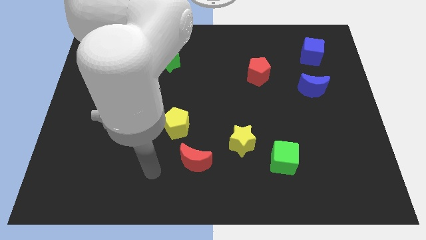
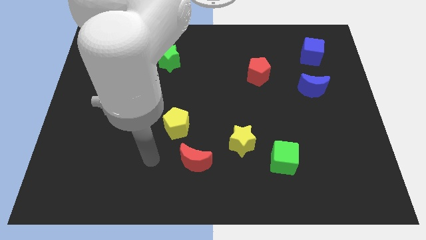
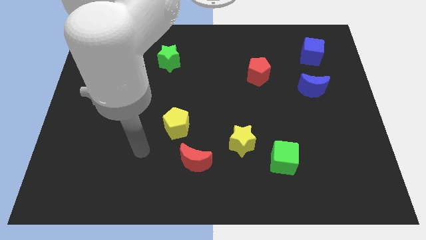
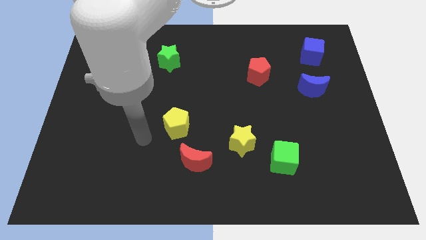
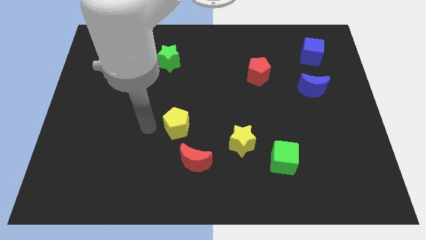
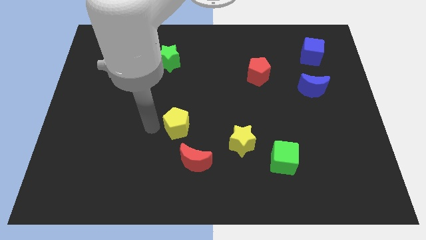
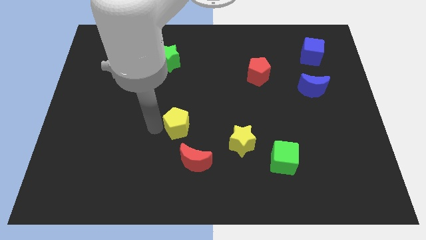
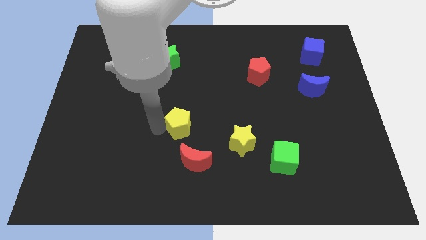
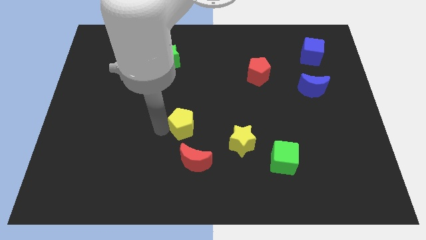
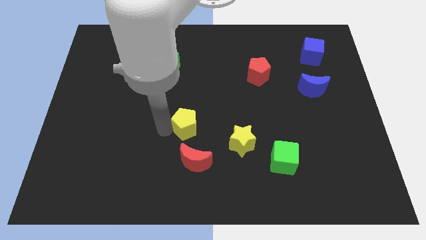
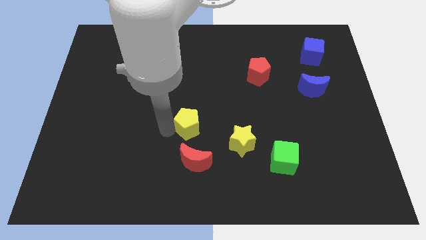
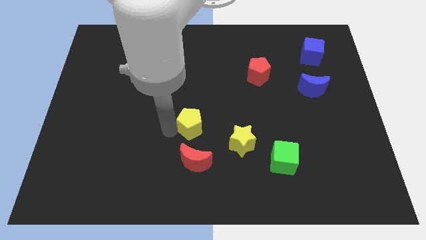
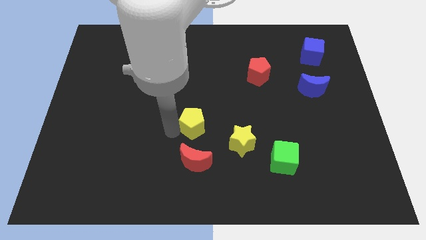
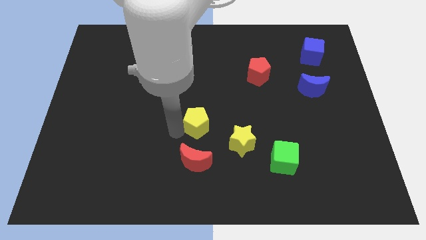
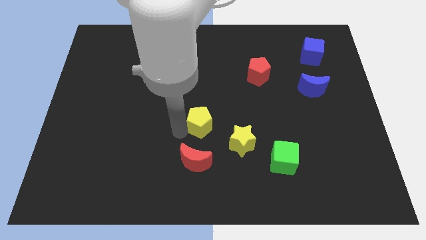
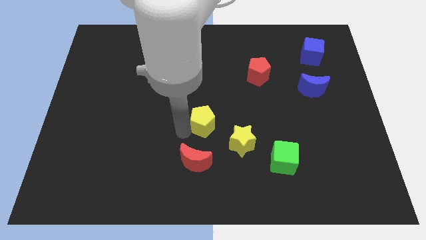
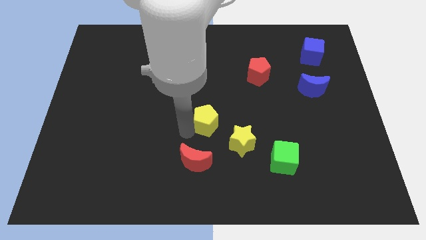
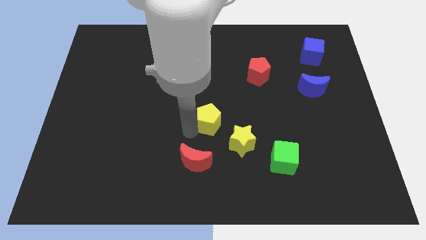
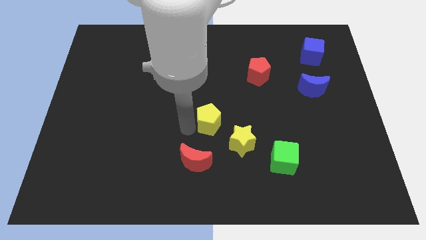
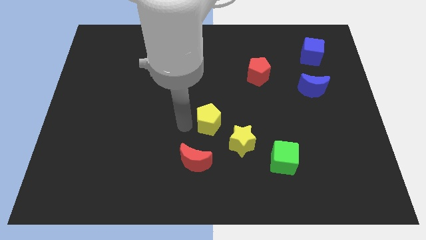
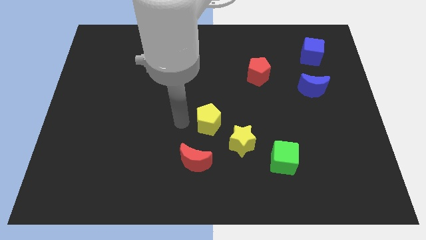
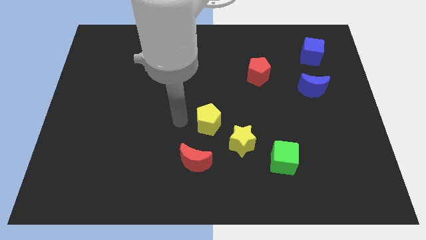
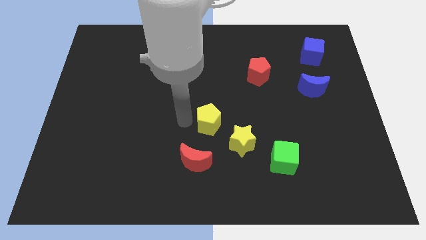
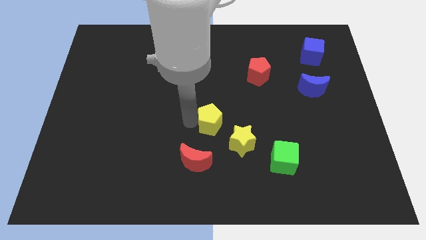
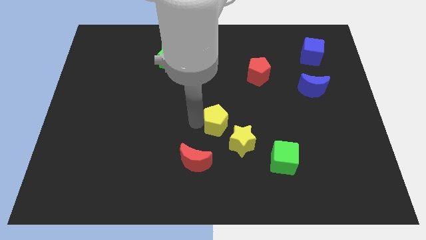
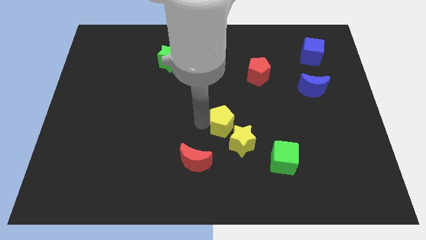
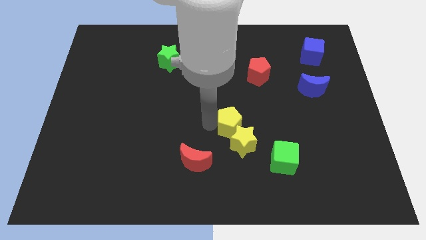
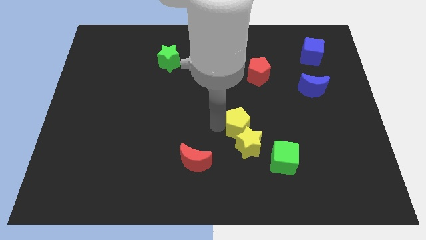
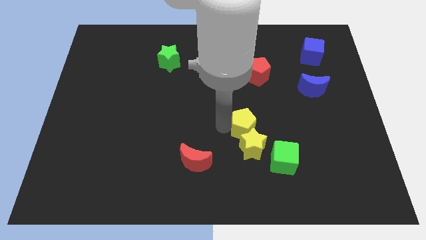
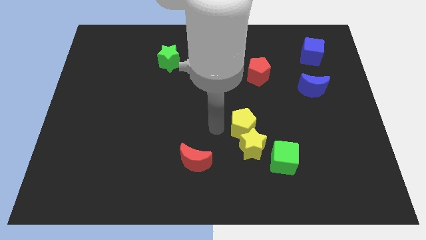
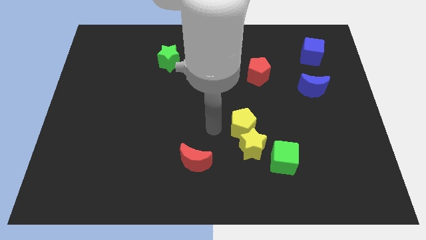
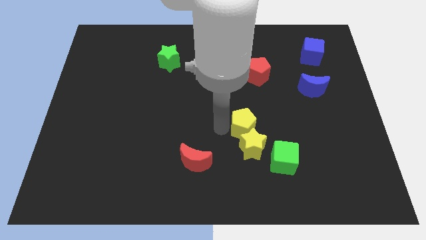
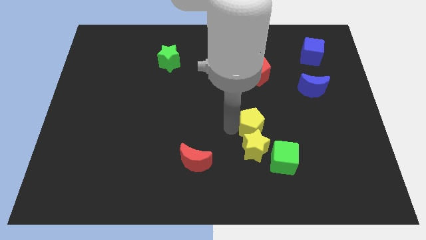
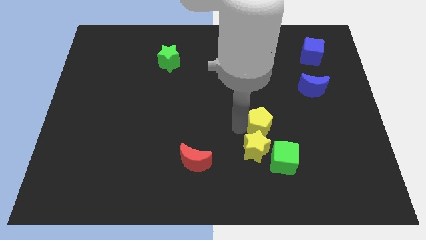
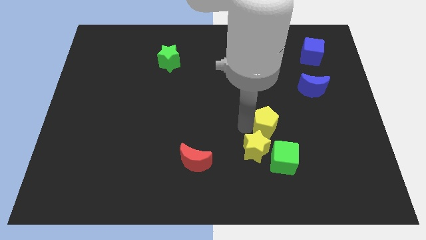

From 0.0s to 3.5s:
slide the yellow pentagon right

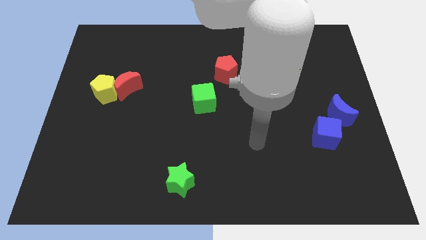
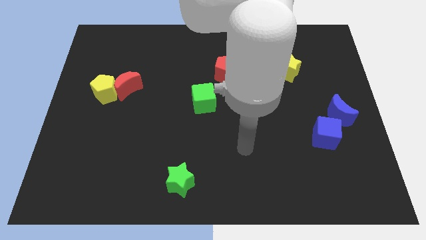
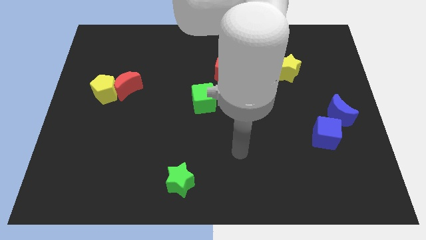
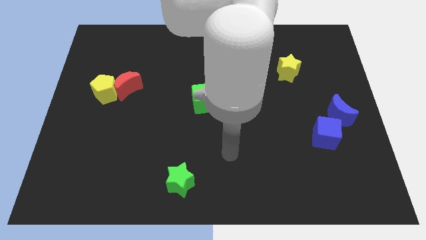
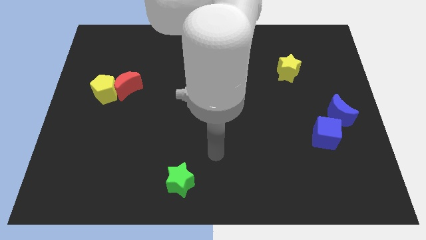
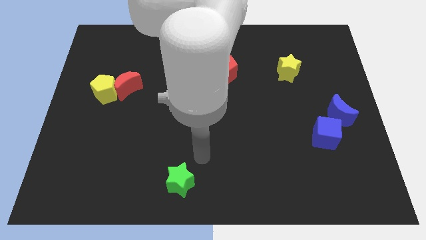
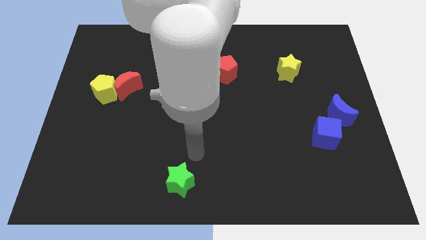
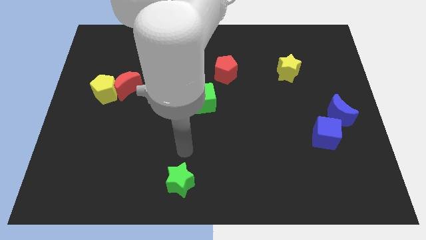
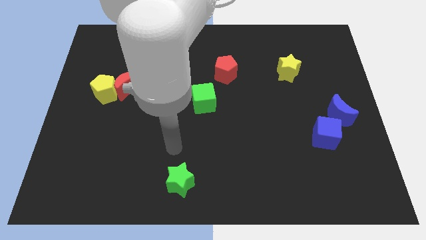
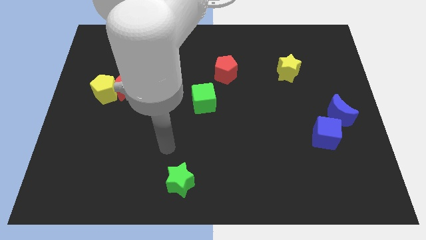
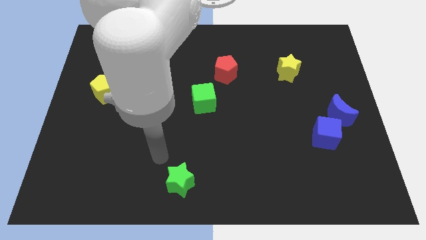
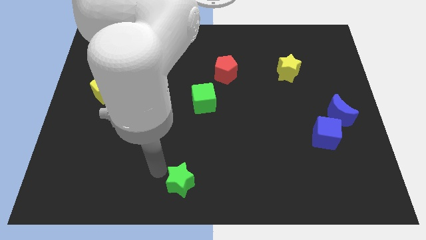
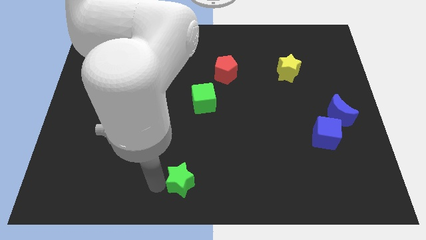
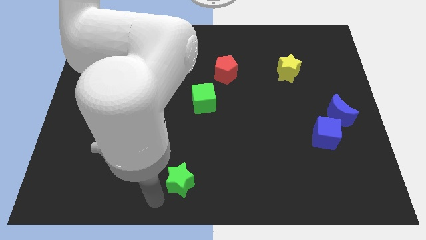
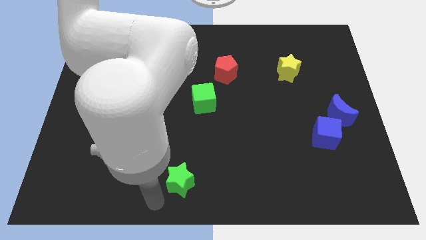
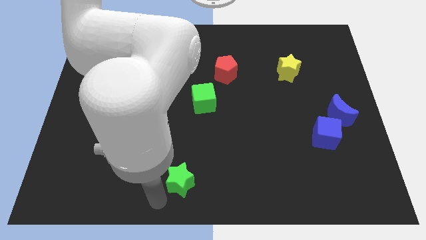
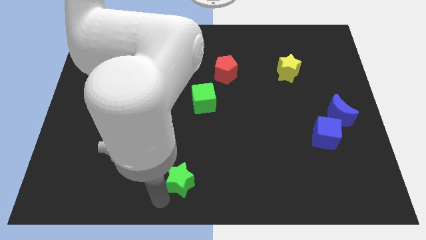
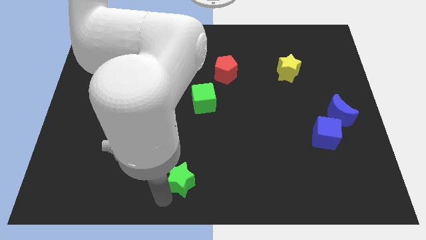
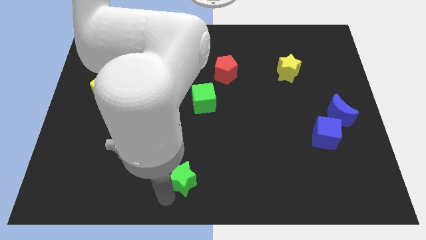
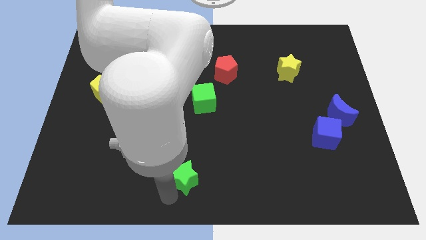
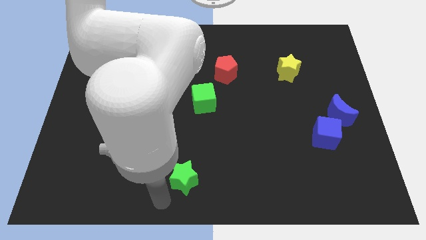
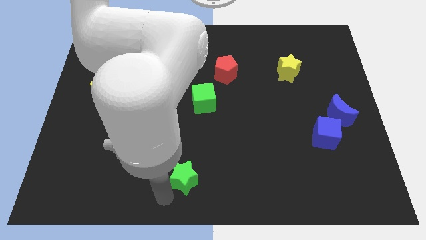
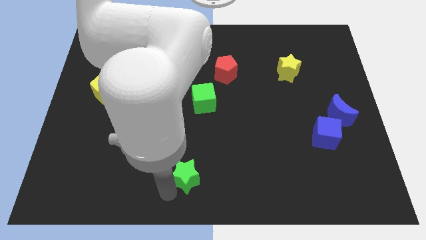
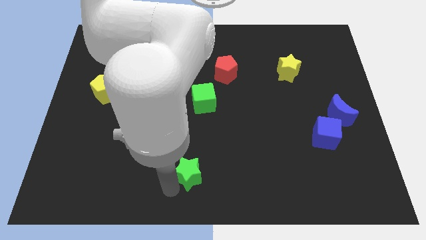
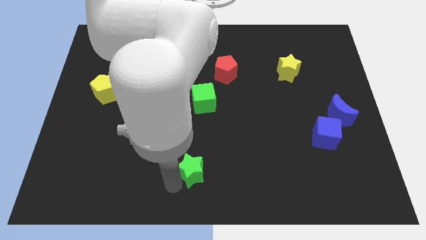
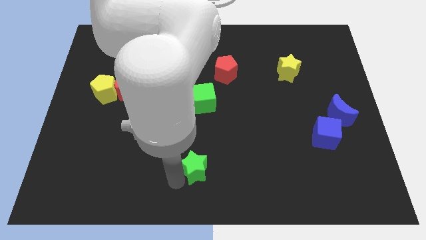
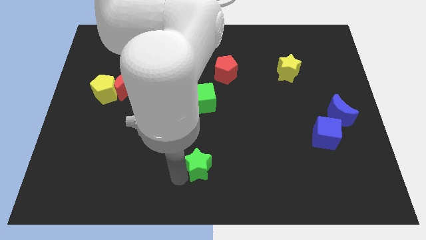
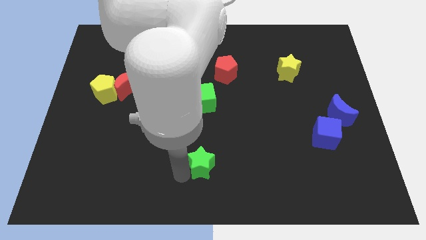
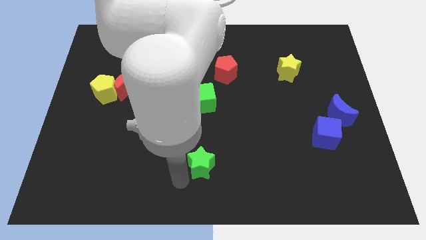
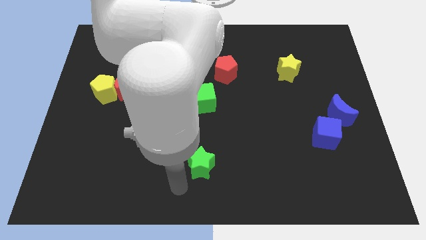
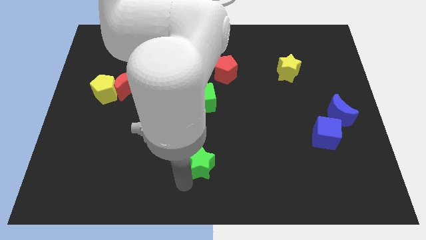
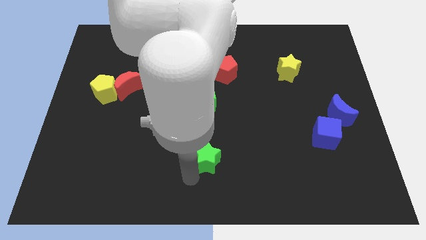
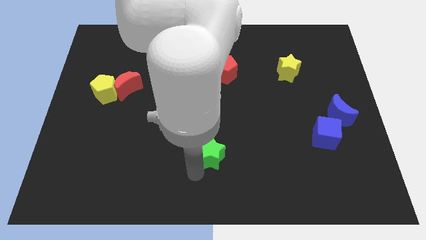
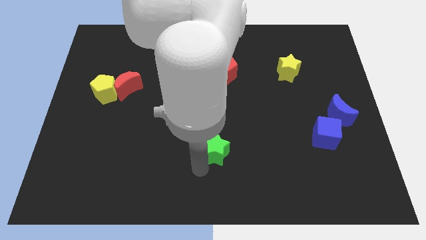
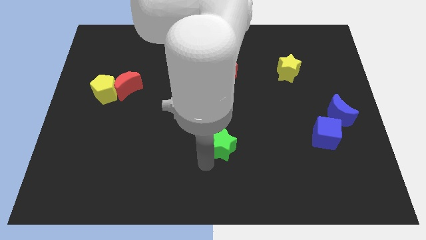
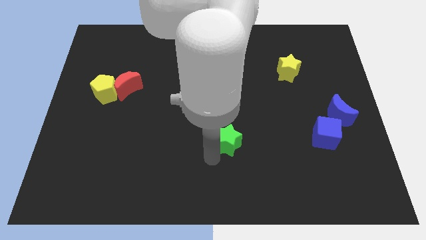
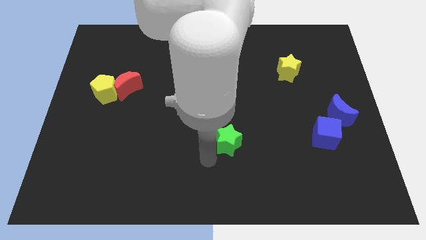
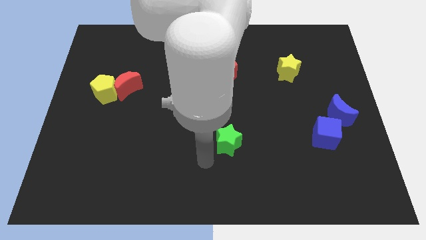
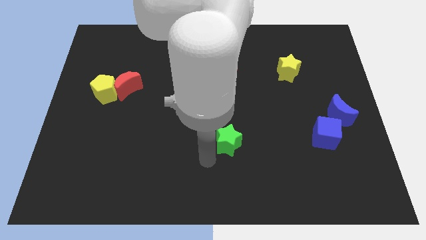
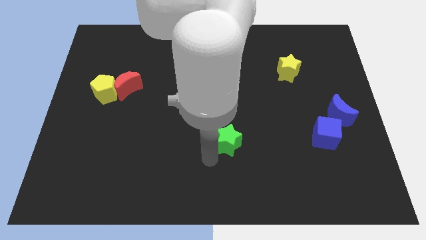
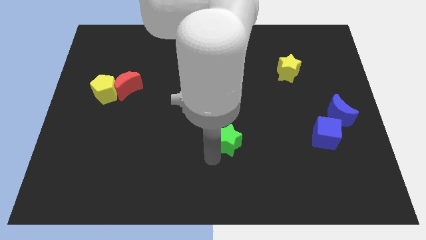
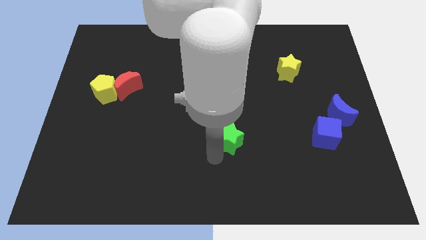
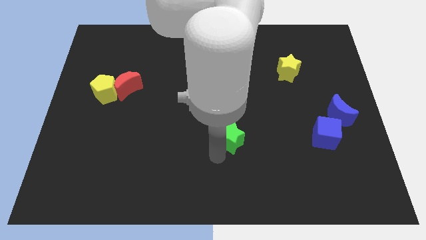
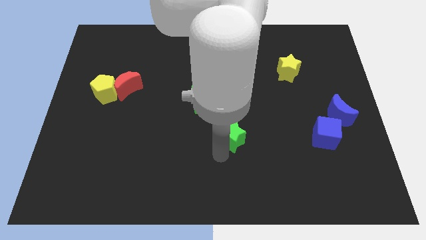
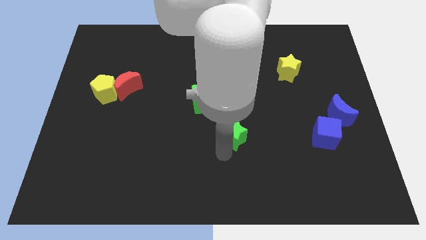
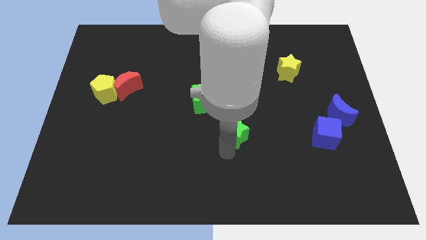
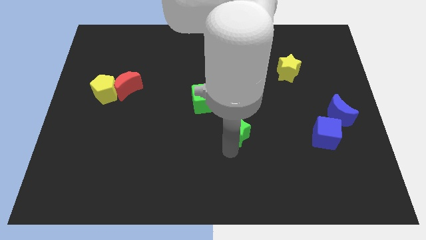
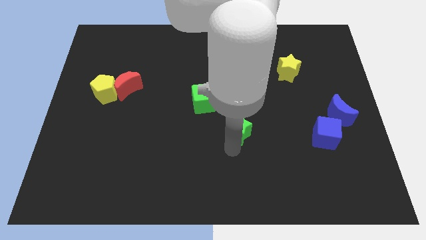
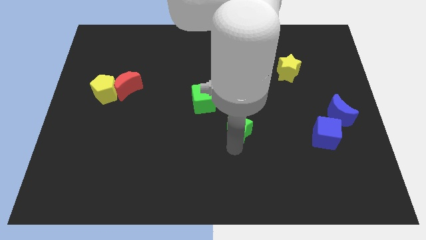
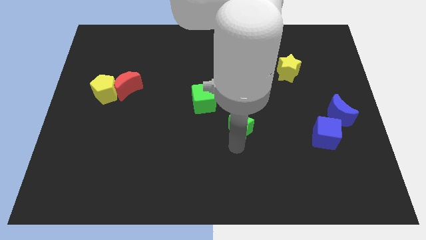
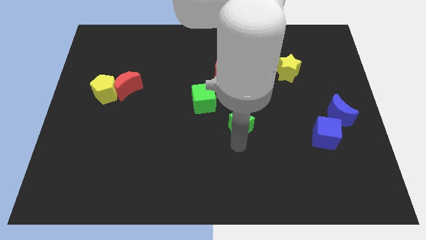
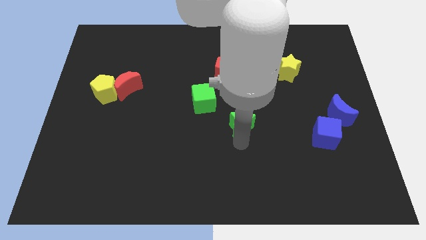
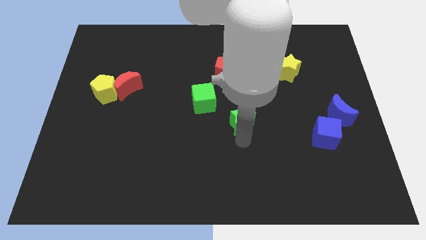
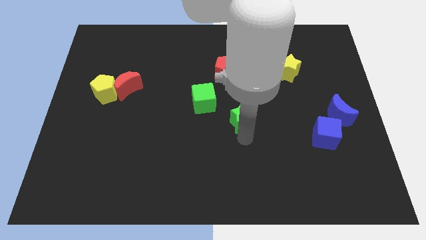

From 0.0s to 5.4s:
move the green star up and to the right
